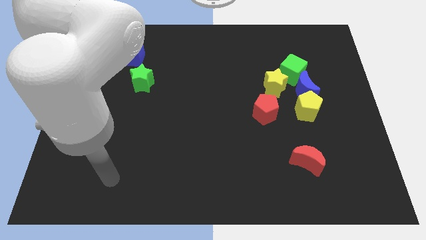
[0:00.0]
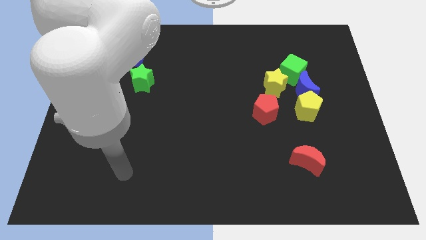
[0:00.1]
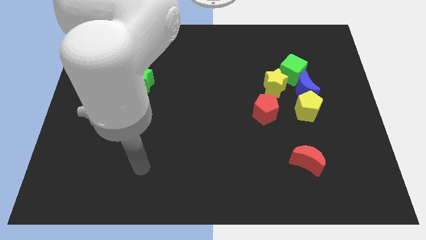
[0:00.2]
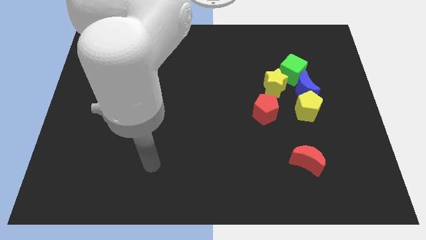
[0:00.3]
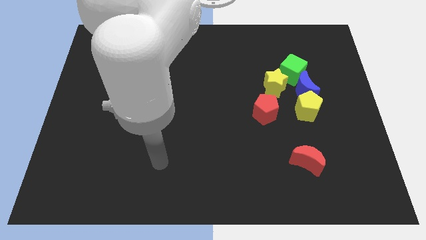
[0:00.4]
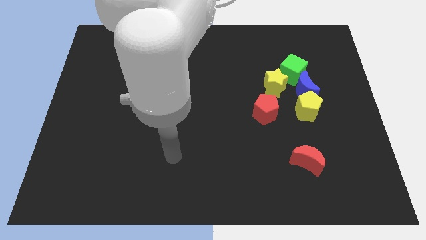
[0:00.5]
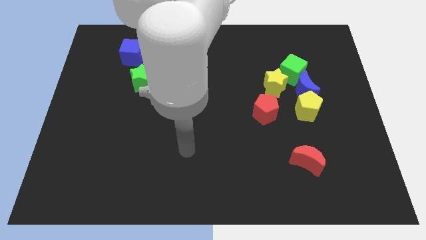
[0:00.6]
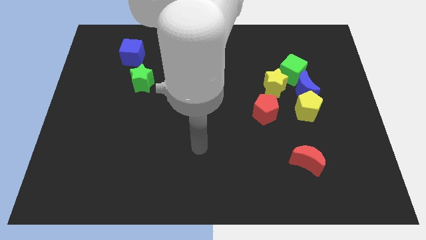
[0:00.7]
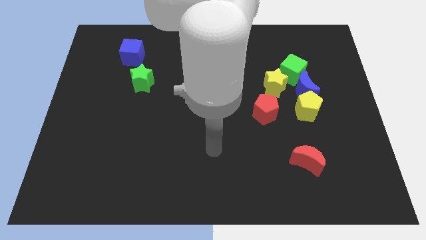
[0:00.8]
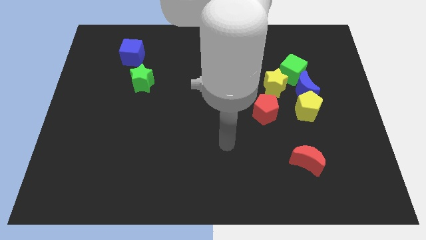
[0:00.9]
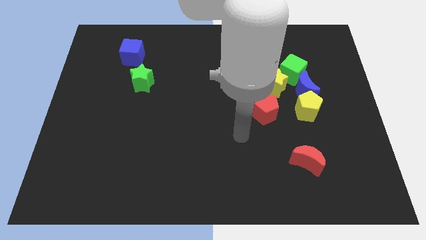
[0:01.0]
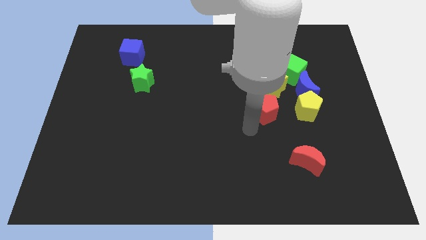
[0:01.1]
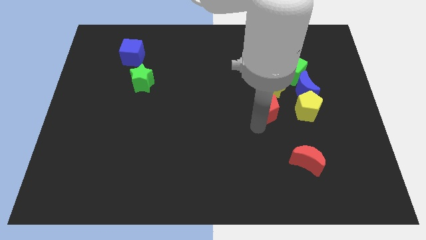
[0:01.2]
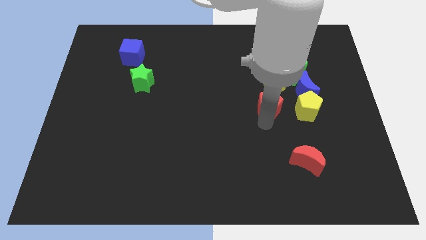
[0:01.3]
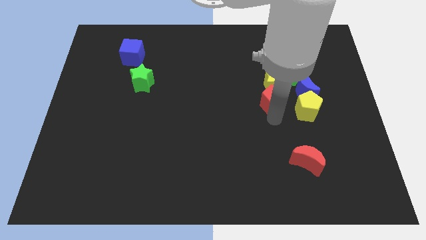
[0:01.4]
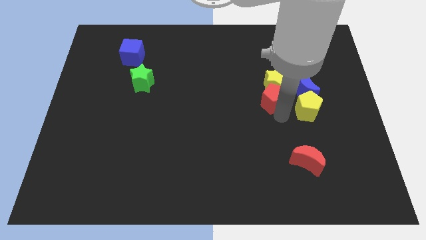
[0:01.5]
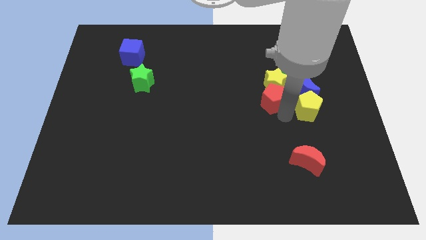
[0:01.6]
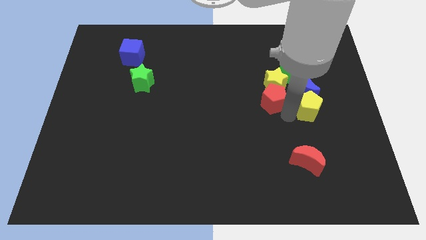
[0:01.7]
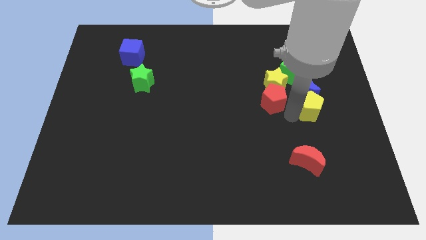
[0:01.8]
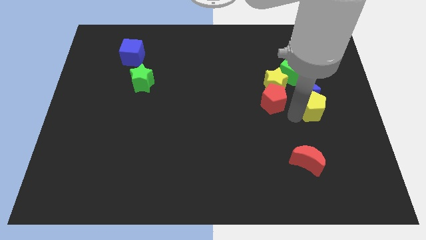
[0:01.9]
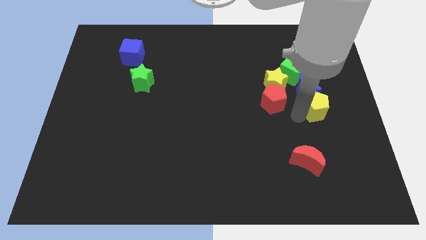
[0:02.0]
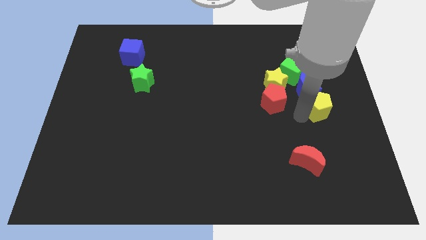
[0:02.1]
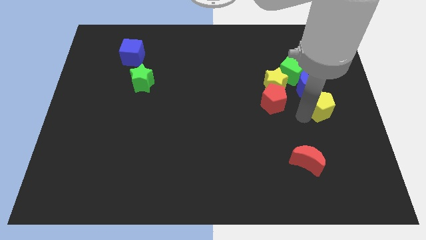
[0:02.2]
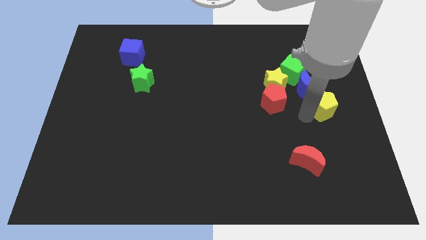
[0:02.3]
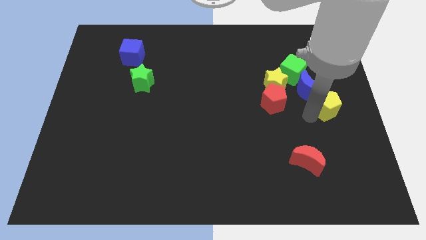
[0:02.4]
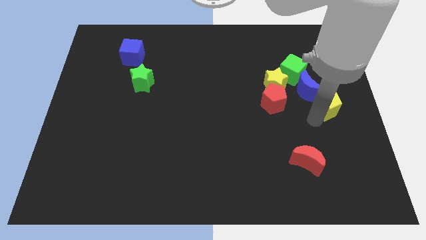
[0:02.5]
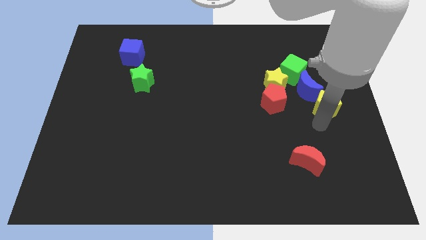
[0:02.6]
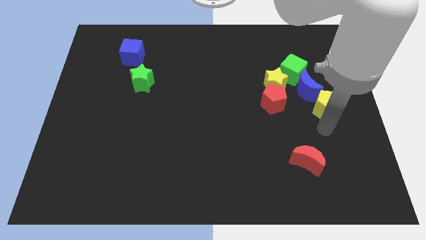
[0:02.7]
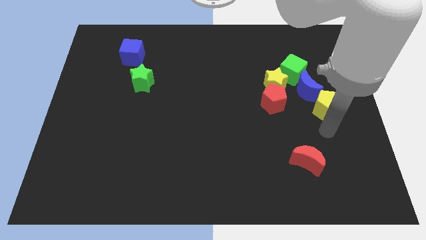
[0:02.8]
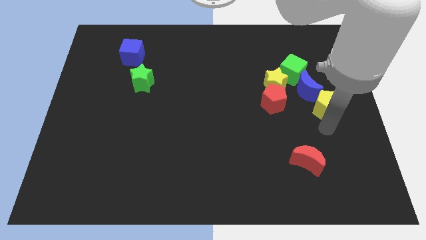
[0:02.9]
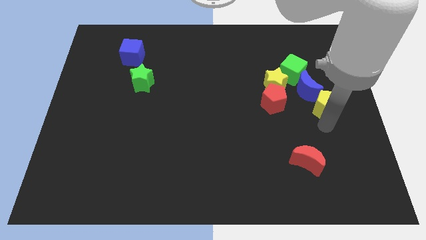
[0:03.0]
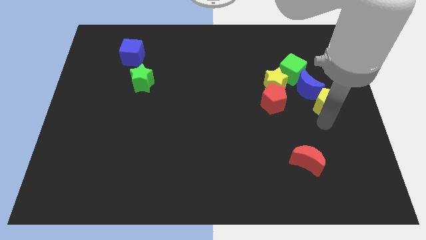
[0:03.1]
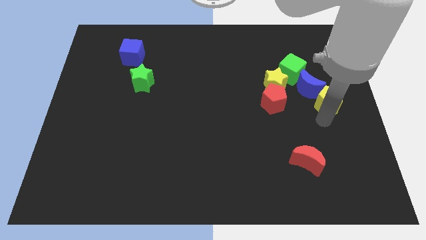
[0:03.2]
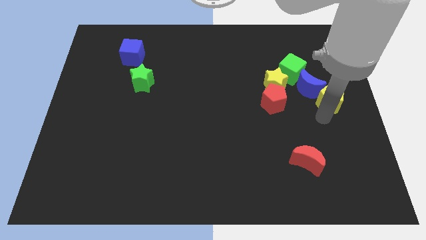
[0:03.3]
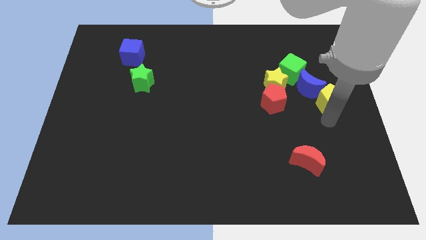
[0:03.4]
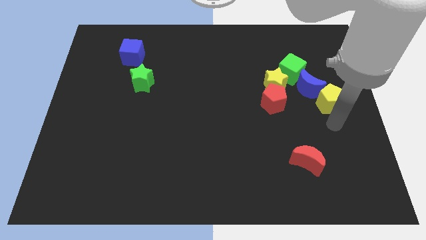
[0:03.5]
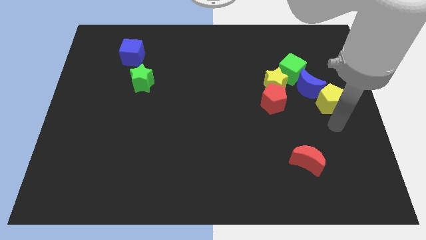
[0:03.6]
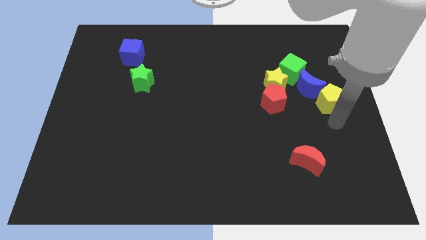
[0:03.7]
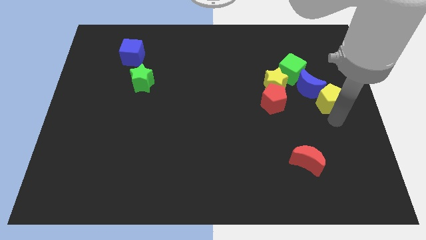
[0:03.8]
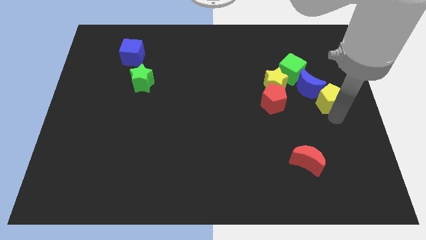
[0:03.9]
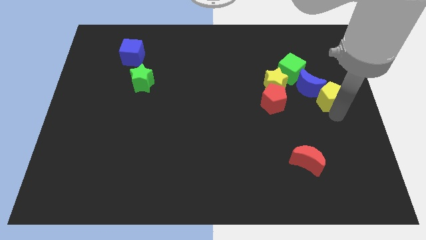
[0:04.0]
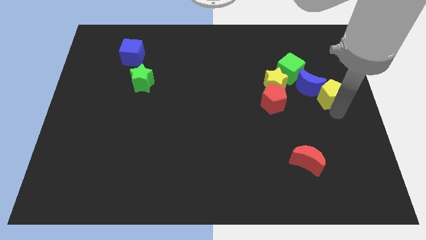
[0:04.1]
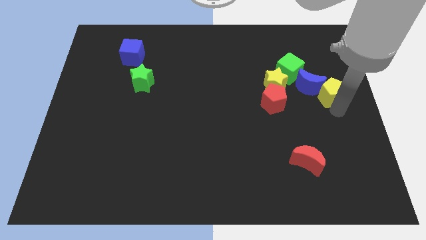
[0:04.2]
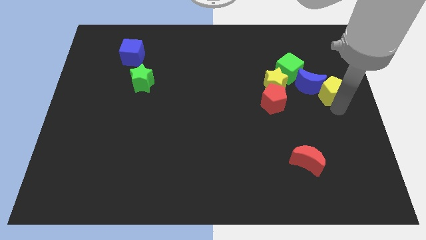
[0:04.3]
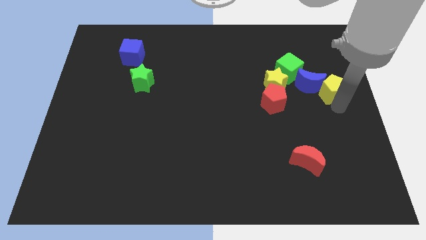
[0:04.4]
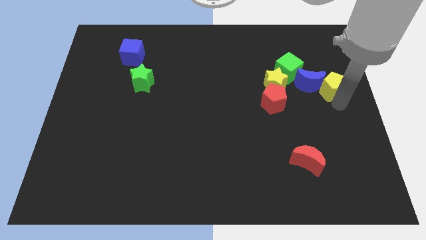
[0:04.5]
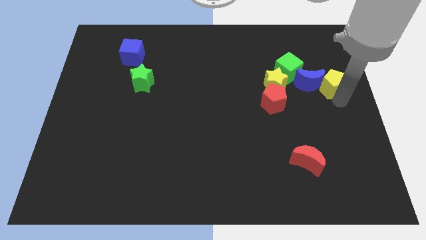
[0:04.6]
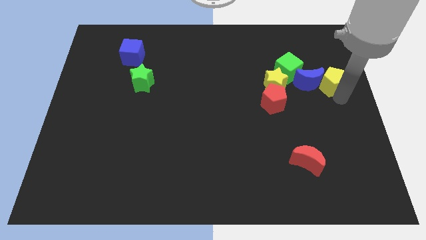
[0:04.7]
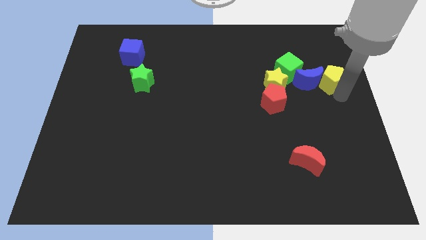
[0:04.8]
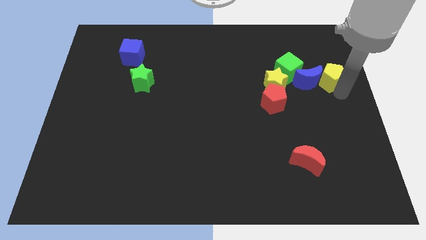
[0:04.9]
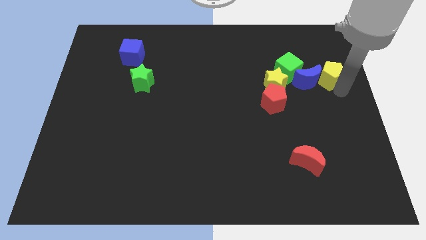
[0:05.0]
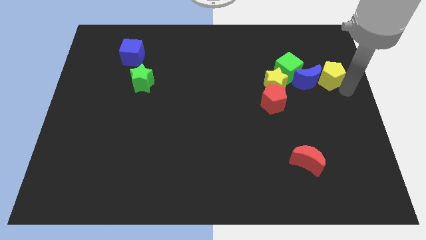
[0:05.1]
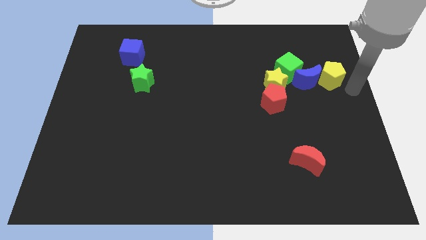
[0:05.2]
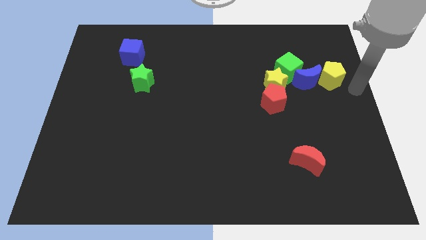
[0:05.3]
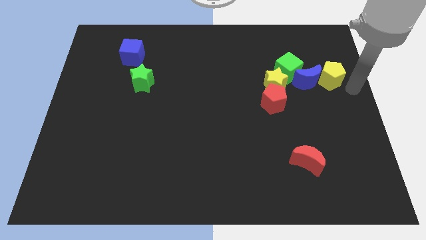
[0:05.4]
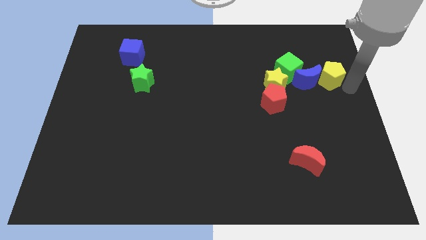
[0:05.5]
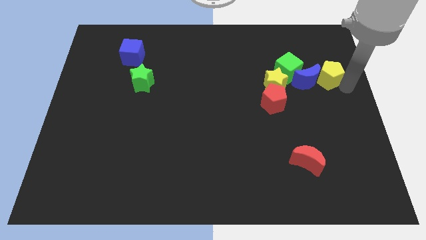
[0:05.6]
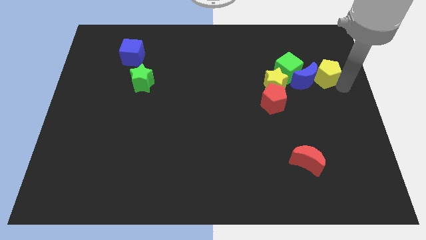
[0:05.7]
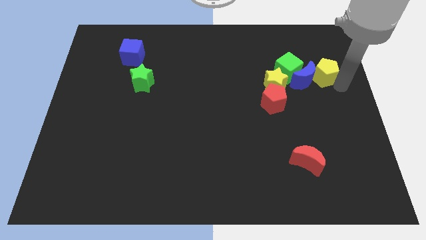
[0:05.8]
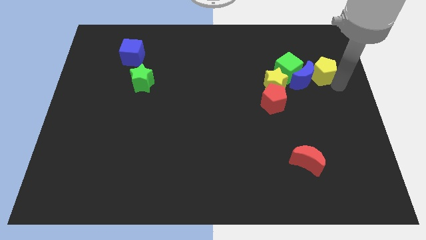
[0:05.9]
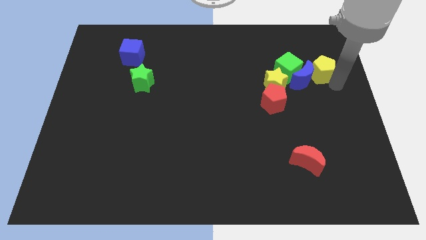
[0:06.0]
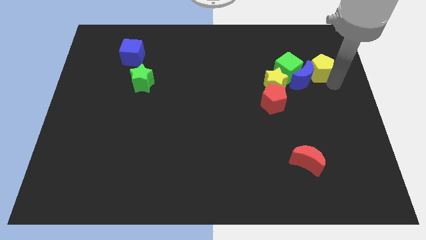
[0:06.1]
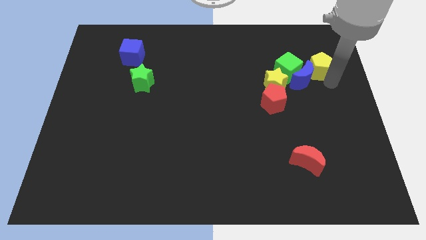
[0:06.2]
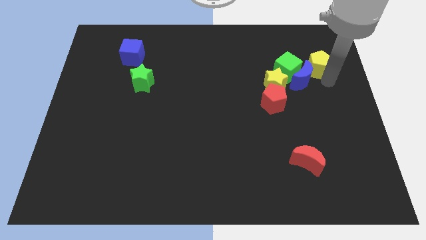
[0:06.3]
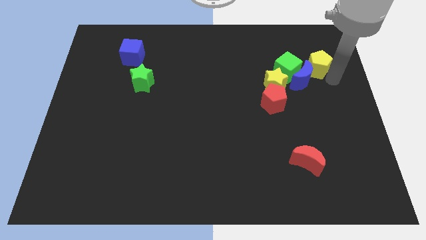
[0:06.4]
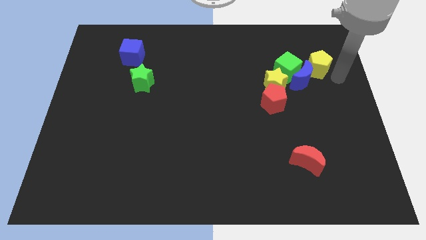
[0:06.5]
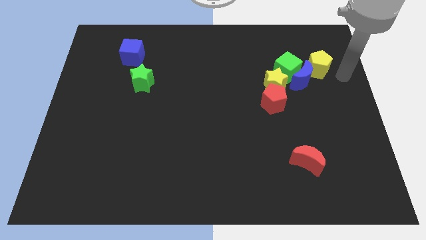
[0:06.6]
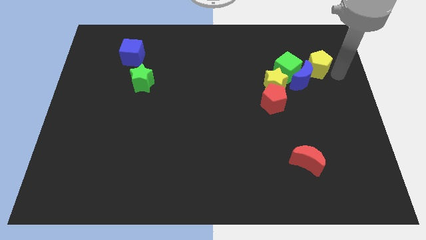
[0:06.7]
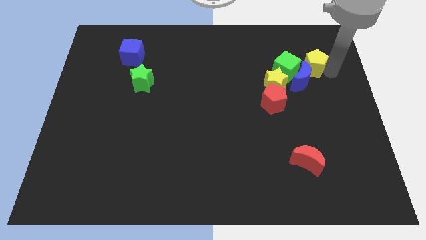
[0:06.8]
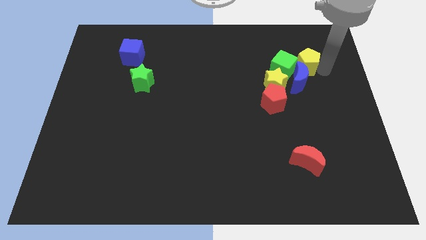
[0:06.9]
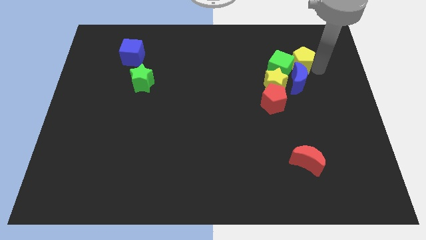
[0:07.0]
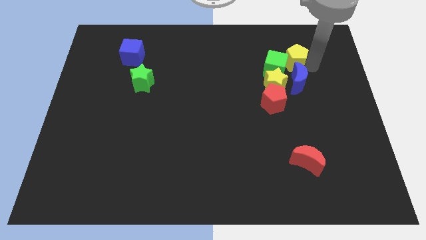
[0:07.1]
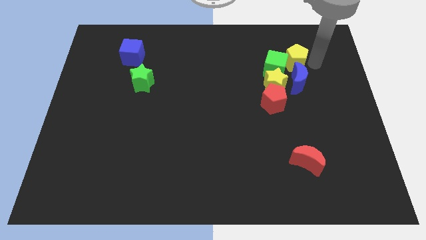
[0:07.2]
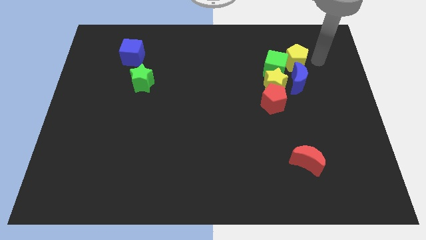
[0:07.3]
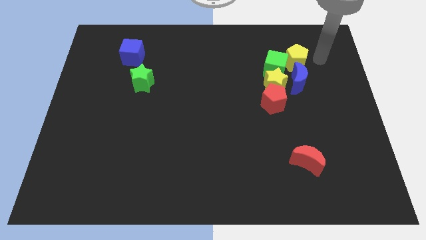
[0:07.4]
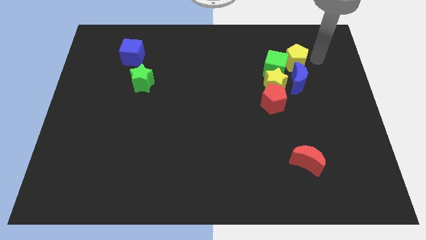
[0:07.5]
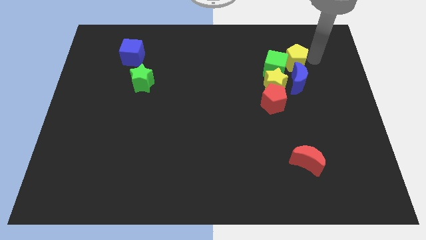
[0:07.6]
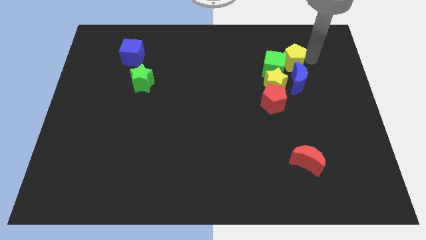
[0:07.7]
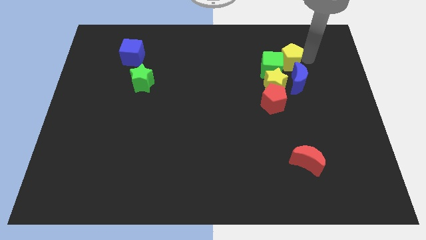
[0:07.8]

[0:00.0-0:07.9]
move the yellow pentagon up and to the left diagonally slightly
